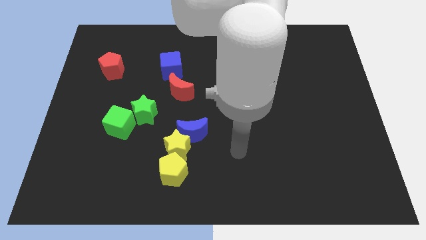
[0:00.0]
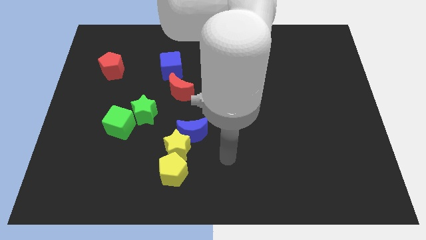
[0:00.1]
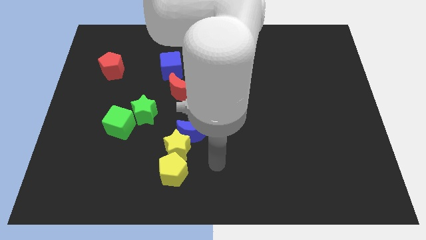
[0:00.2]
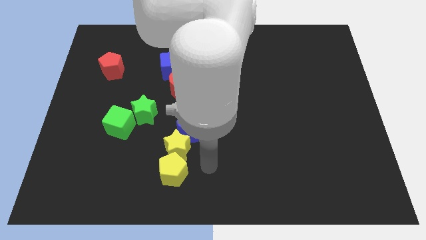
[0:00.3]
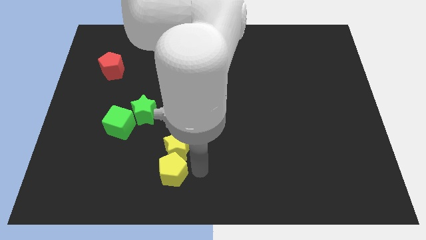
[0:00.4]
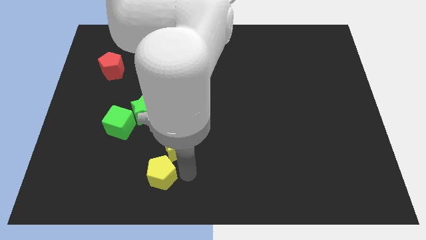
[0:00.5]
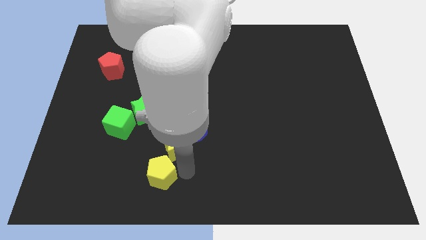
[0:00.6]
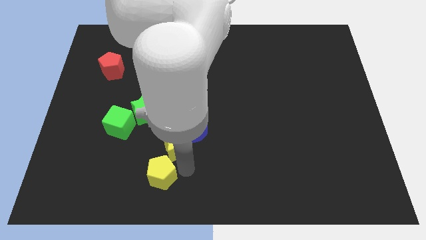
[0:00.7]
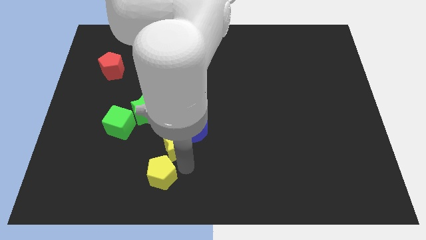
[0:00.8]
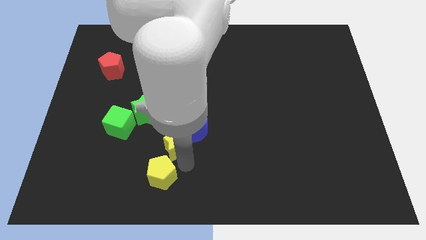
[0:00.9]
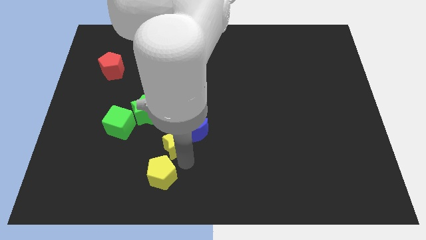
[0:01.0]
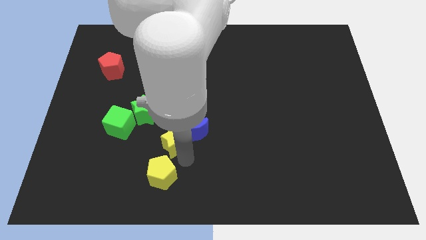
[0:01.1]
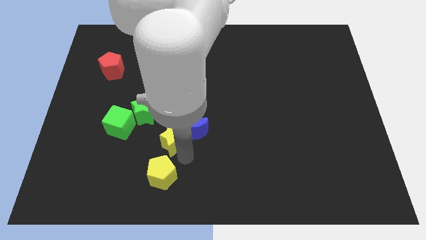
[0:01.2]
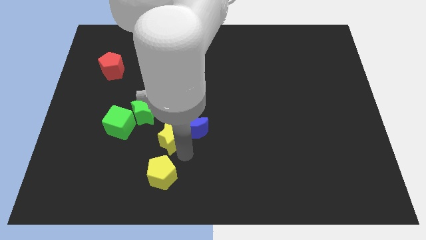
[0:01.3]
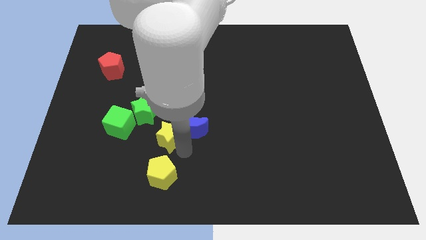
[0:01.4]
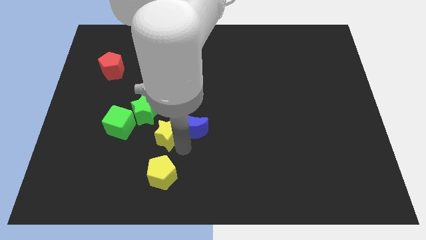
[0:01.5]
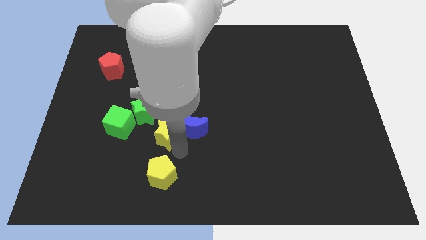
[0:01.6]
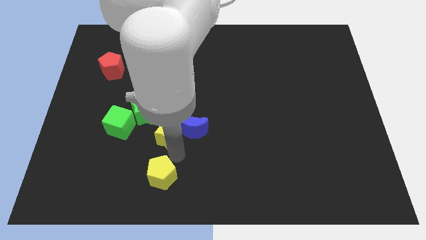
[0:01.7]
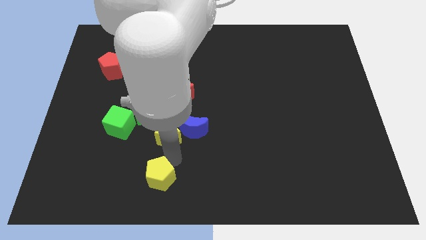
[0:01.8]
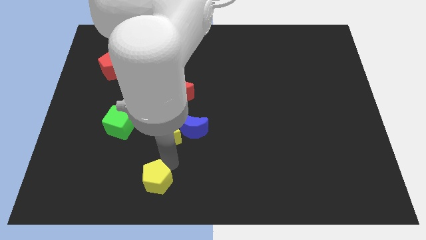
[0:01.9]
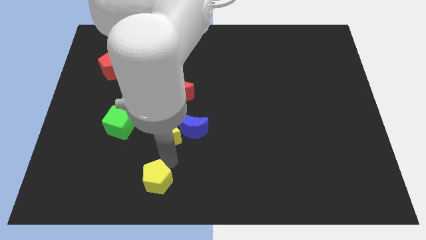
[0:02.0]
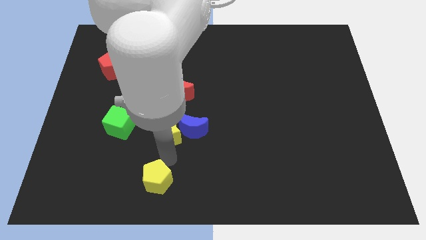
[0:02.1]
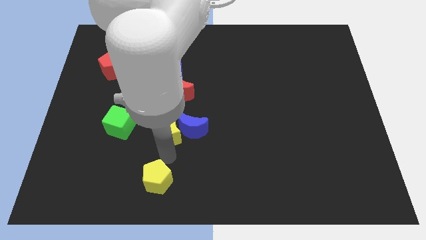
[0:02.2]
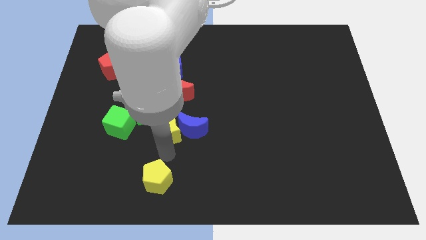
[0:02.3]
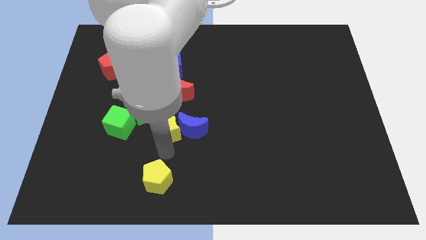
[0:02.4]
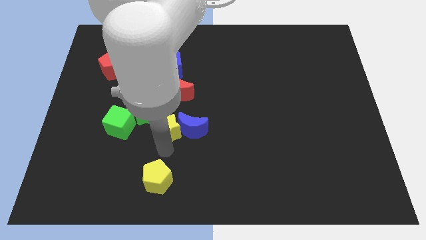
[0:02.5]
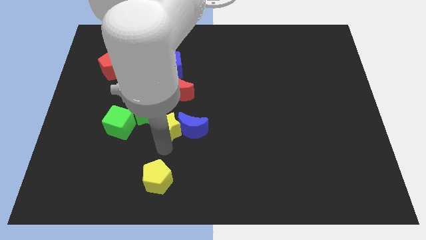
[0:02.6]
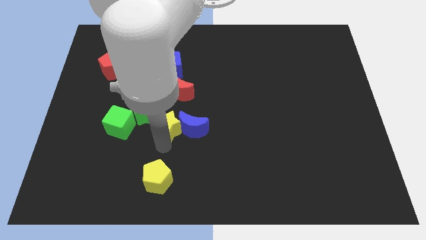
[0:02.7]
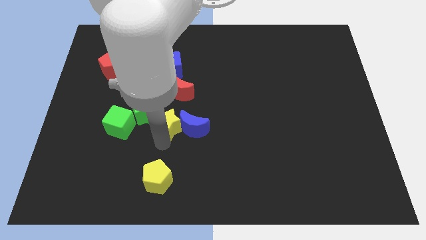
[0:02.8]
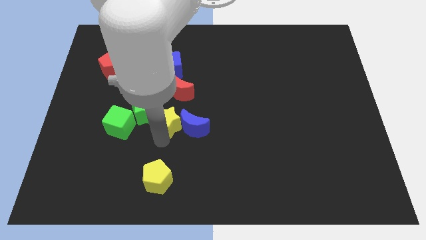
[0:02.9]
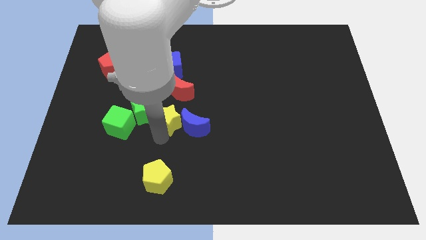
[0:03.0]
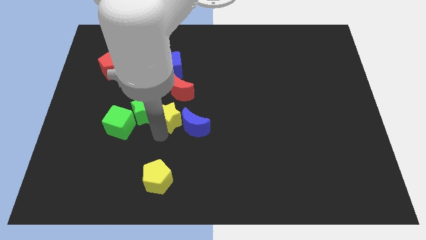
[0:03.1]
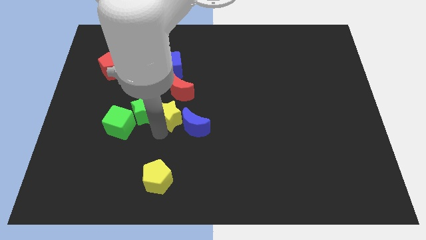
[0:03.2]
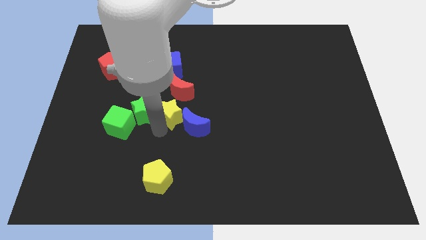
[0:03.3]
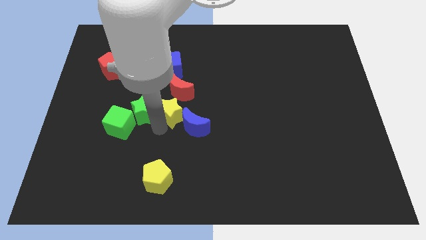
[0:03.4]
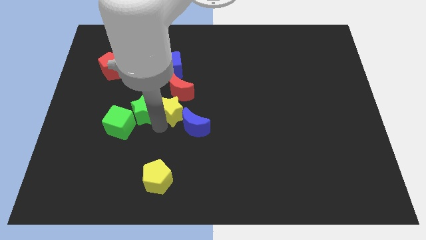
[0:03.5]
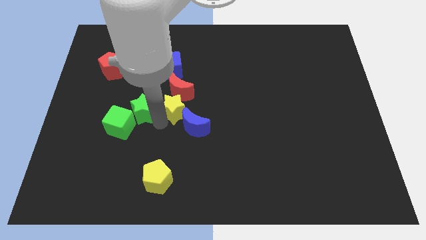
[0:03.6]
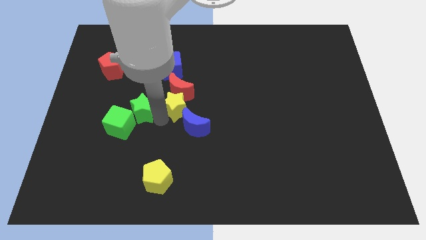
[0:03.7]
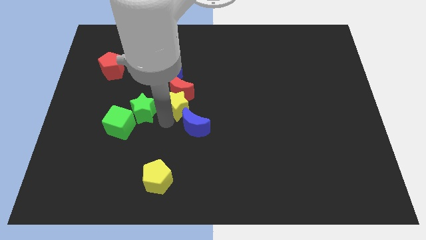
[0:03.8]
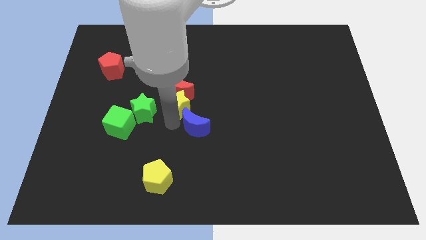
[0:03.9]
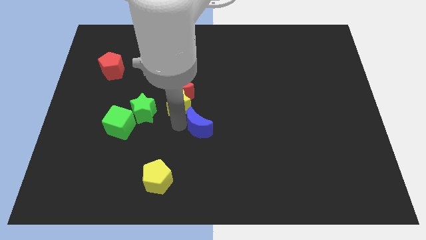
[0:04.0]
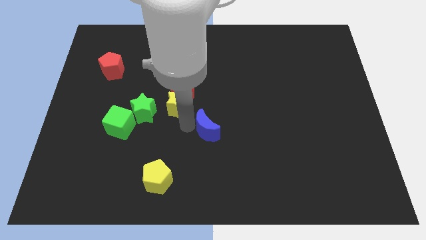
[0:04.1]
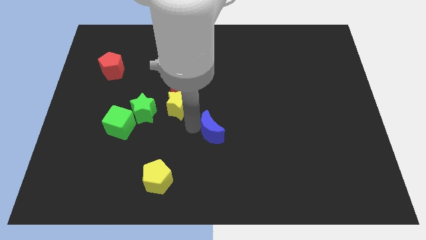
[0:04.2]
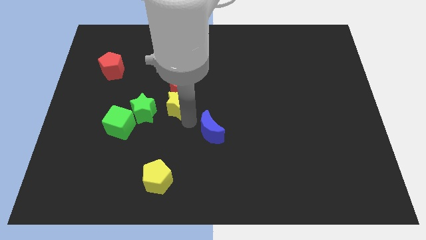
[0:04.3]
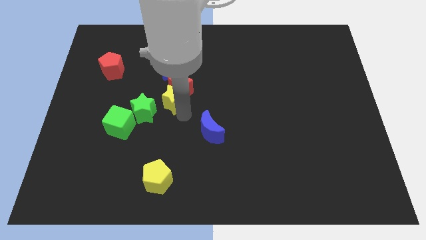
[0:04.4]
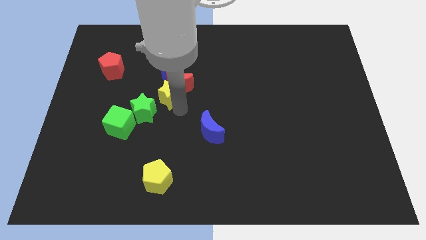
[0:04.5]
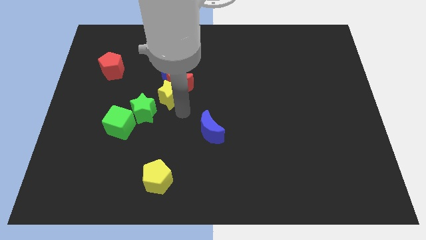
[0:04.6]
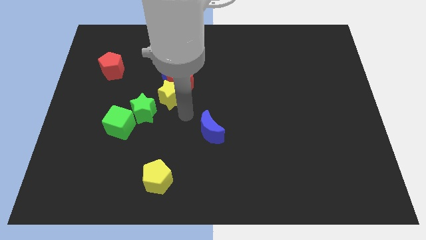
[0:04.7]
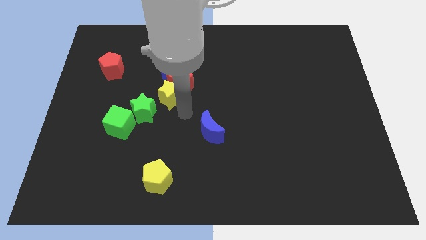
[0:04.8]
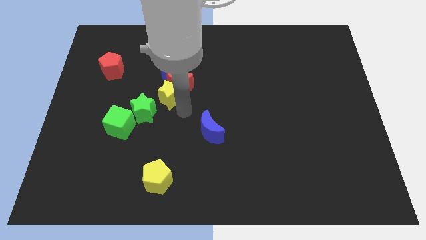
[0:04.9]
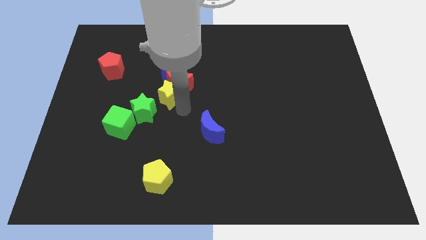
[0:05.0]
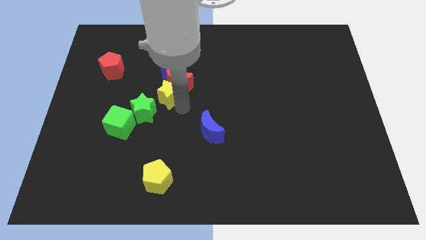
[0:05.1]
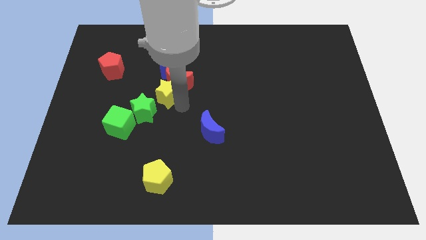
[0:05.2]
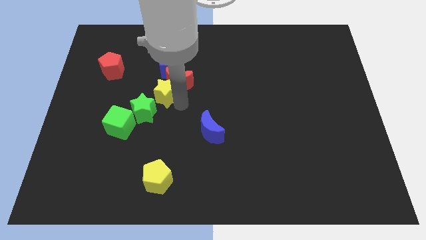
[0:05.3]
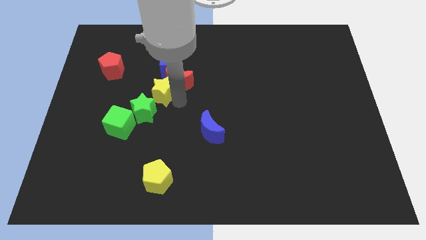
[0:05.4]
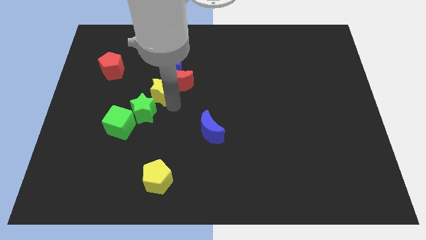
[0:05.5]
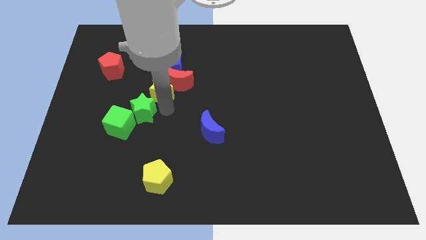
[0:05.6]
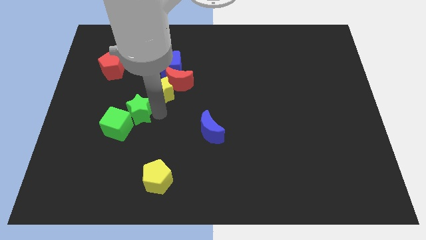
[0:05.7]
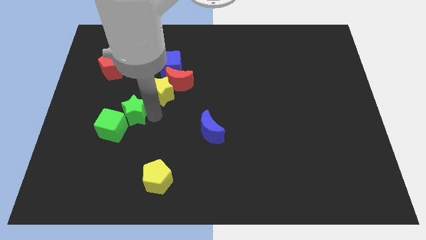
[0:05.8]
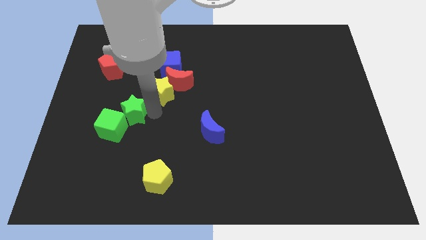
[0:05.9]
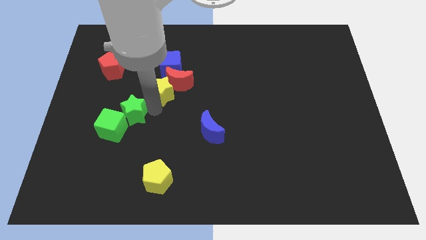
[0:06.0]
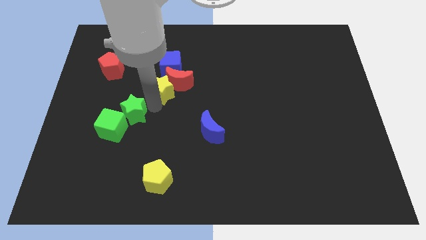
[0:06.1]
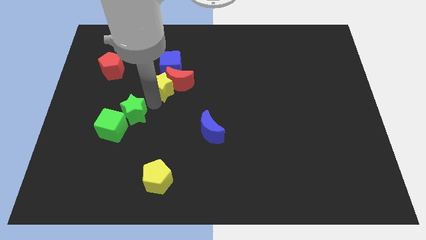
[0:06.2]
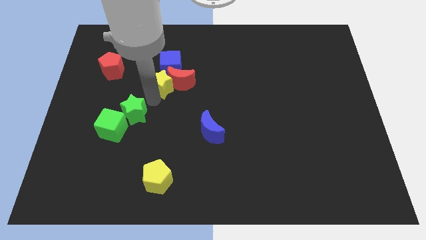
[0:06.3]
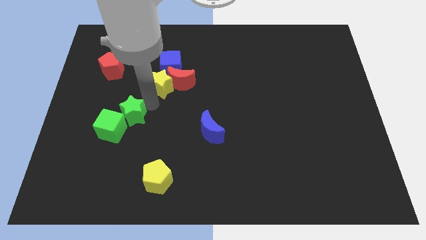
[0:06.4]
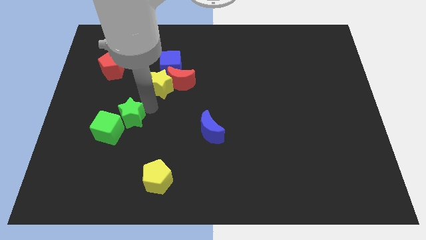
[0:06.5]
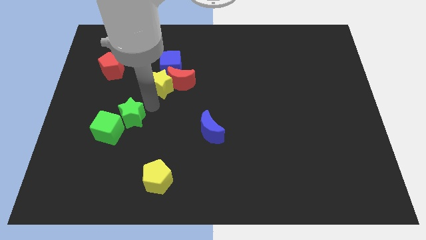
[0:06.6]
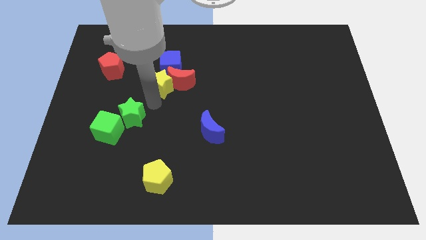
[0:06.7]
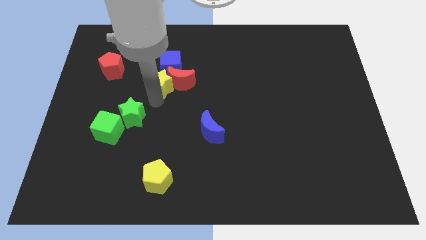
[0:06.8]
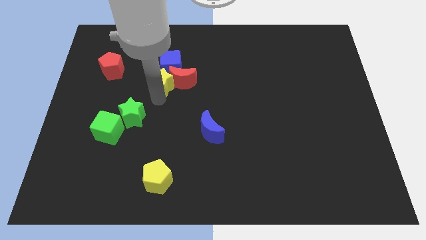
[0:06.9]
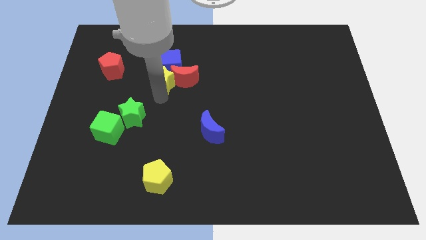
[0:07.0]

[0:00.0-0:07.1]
push the yellow star towards the blue cube
